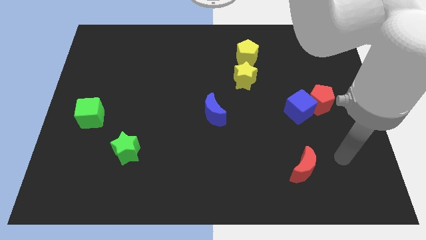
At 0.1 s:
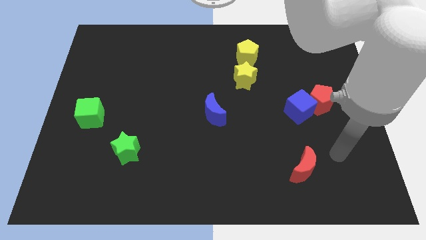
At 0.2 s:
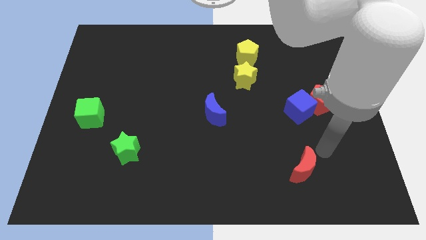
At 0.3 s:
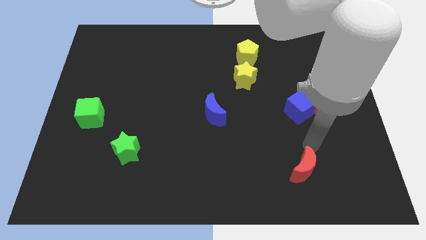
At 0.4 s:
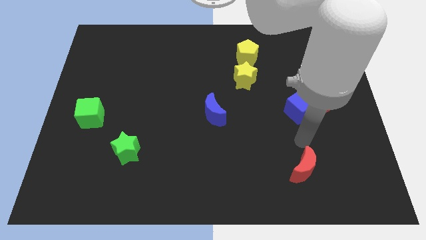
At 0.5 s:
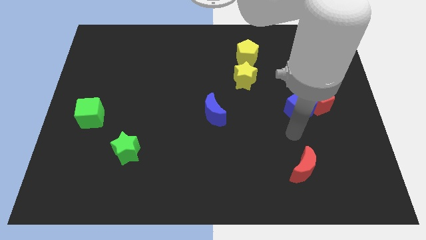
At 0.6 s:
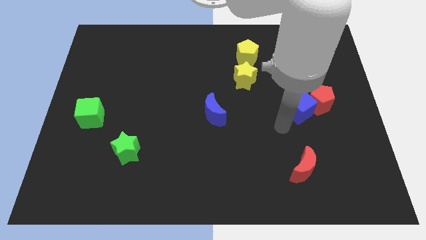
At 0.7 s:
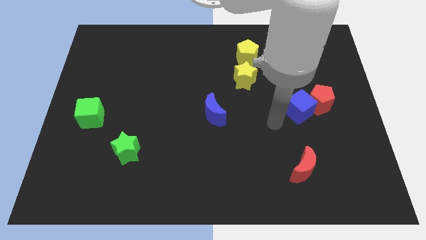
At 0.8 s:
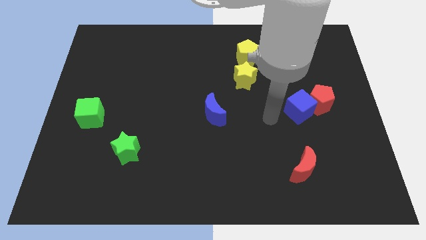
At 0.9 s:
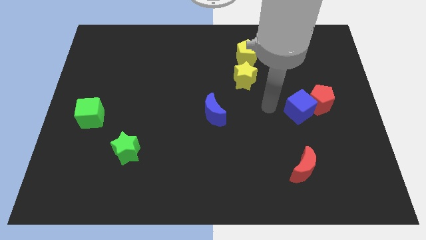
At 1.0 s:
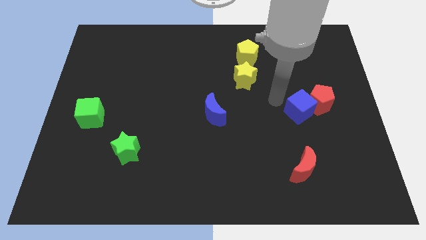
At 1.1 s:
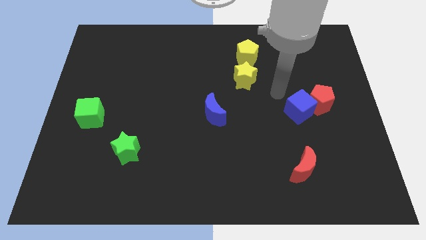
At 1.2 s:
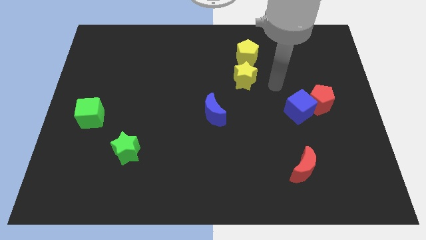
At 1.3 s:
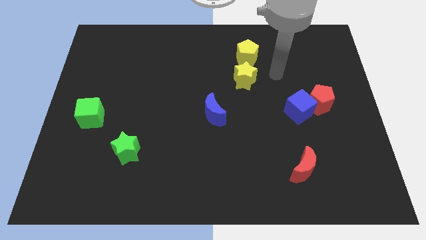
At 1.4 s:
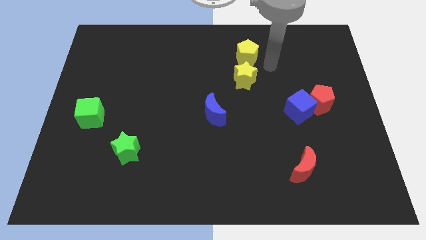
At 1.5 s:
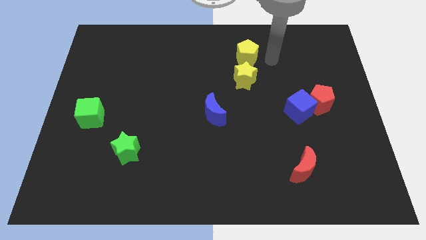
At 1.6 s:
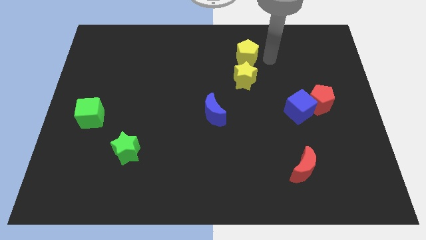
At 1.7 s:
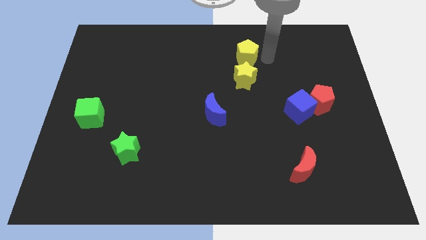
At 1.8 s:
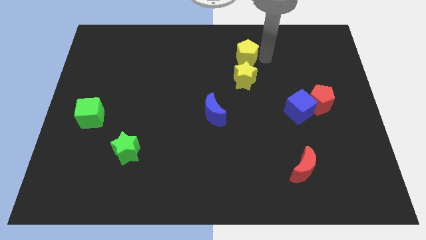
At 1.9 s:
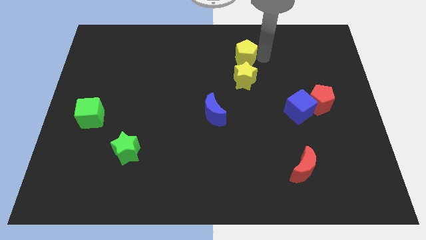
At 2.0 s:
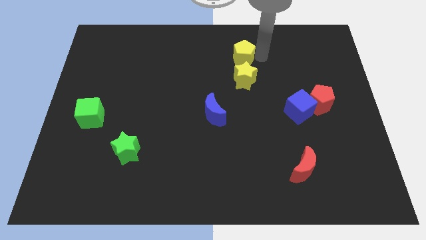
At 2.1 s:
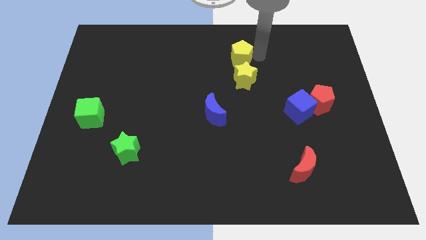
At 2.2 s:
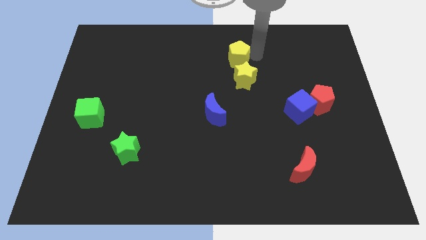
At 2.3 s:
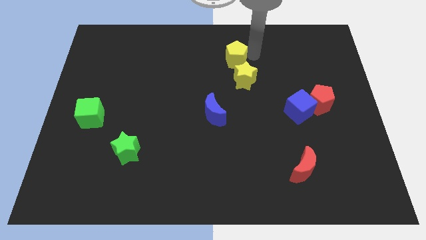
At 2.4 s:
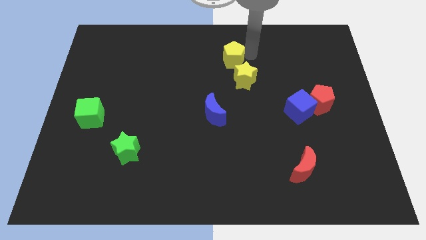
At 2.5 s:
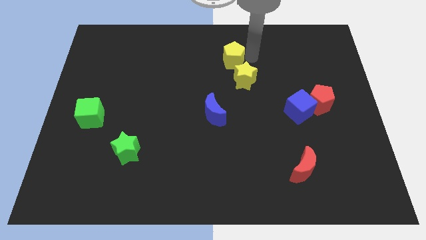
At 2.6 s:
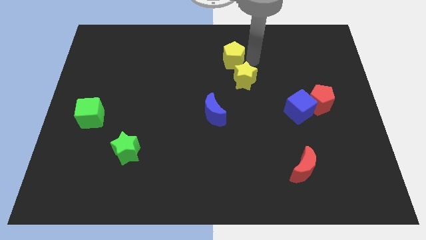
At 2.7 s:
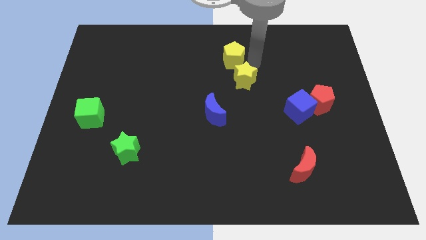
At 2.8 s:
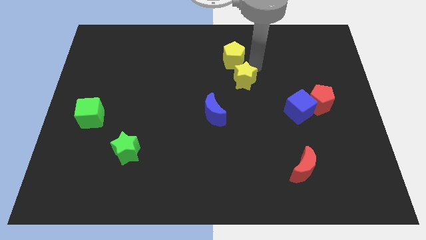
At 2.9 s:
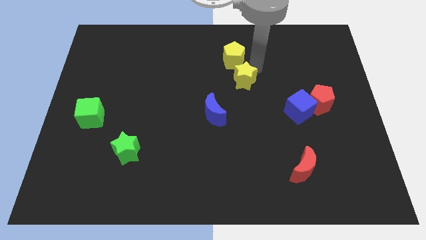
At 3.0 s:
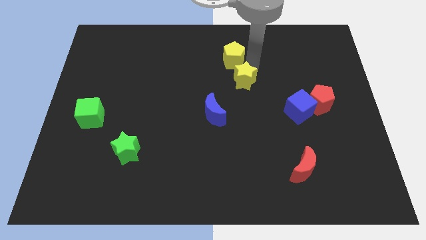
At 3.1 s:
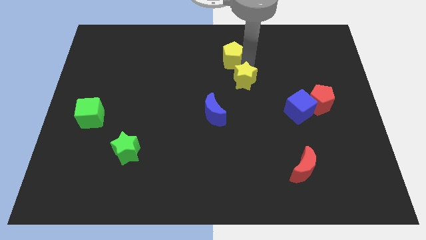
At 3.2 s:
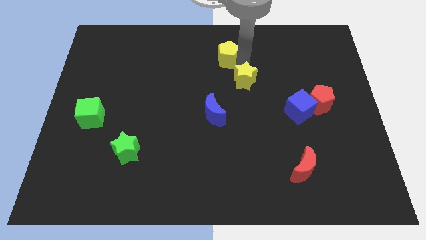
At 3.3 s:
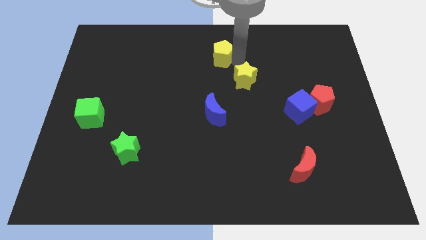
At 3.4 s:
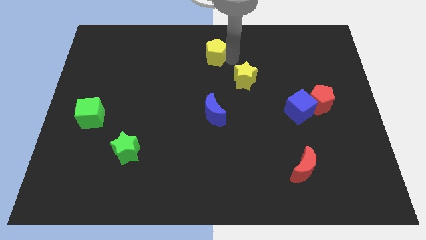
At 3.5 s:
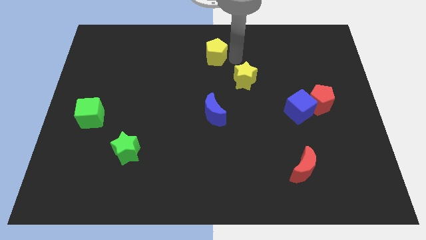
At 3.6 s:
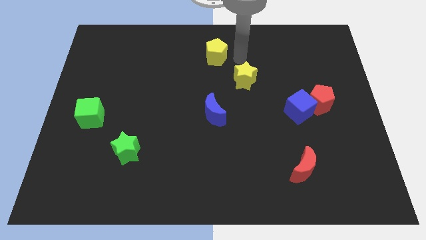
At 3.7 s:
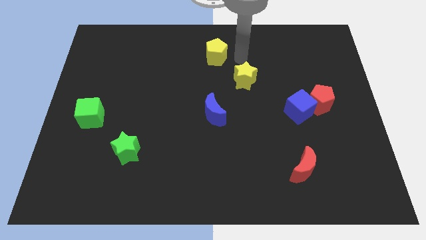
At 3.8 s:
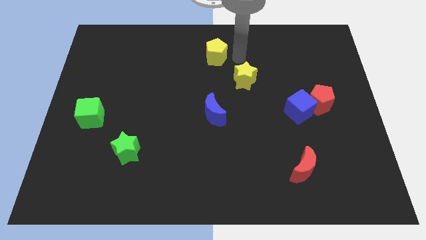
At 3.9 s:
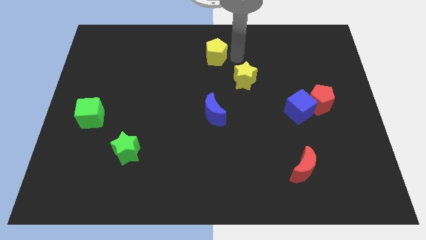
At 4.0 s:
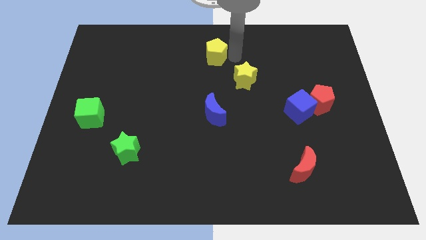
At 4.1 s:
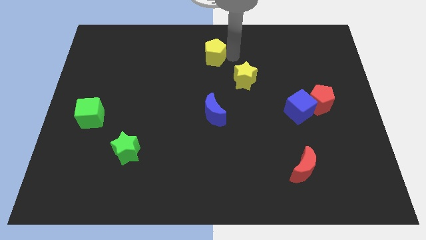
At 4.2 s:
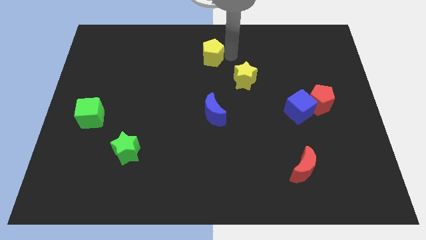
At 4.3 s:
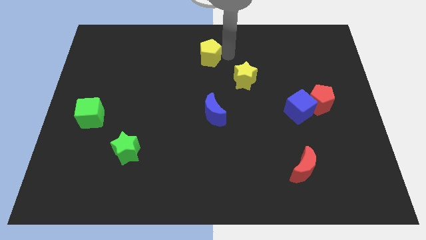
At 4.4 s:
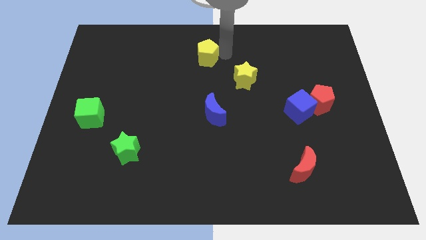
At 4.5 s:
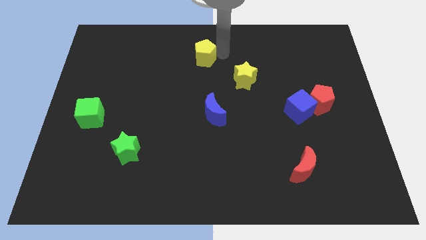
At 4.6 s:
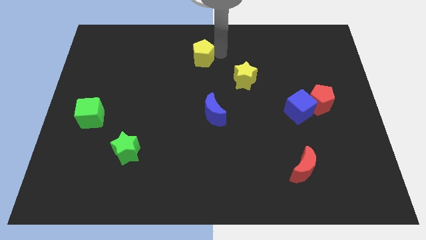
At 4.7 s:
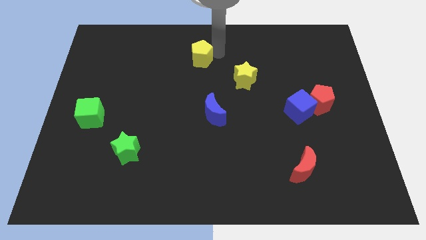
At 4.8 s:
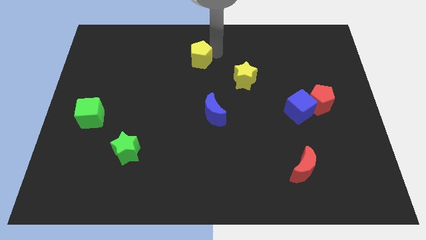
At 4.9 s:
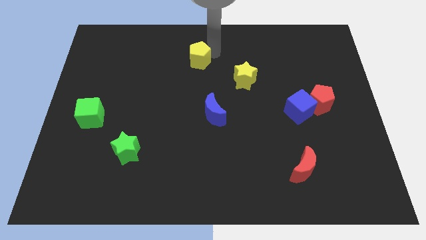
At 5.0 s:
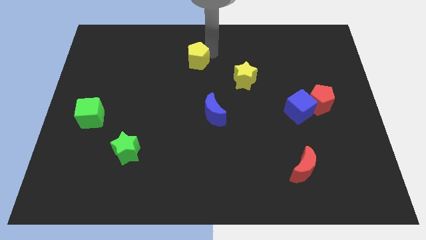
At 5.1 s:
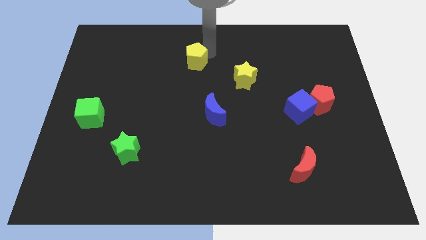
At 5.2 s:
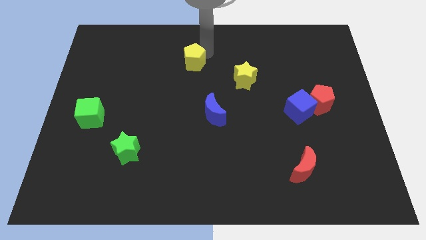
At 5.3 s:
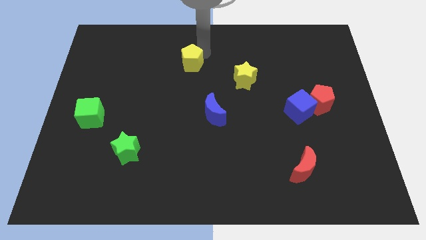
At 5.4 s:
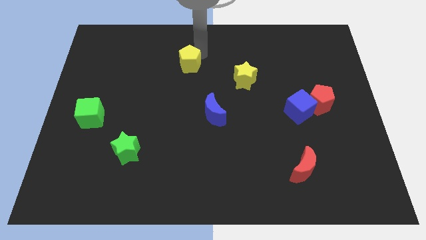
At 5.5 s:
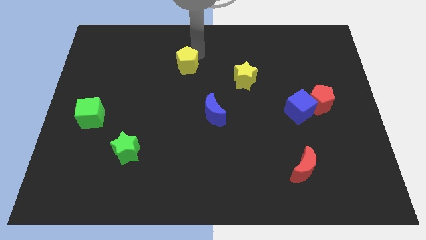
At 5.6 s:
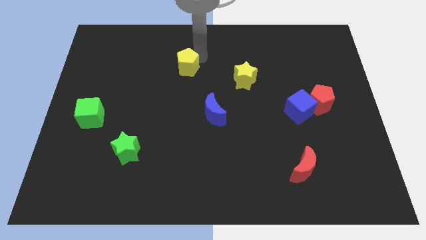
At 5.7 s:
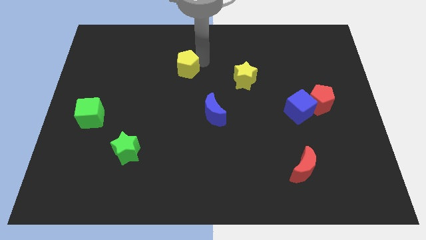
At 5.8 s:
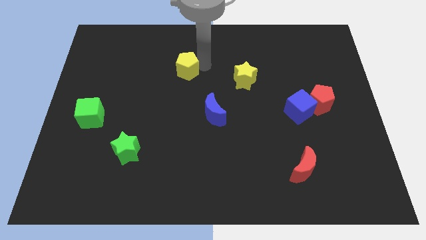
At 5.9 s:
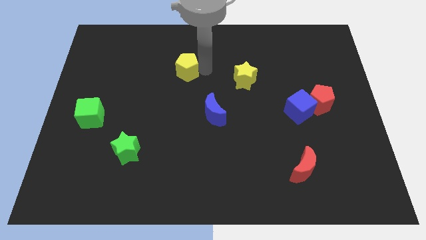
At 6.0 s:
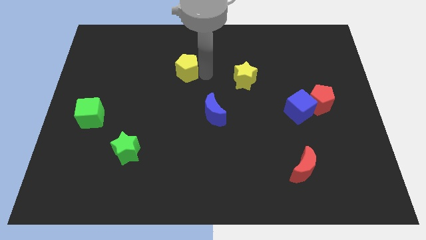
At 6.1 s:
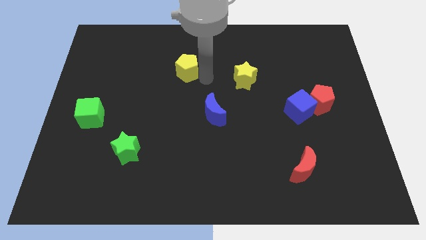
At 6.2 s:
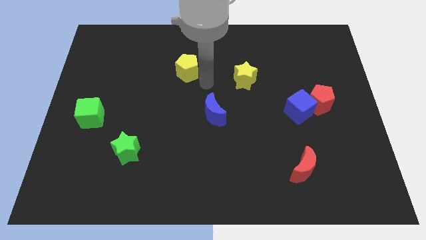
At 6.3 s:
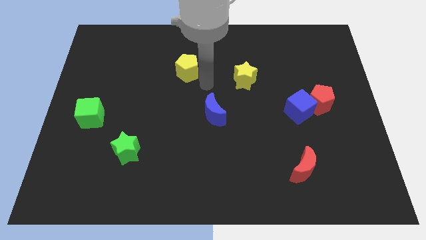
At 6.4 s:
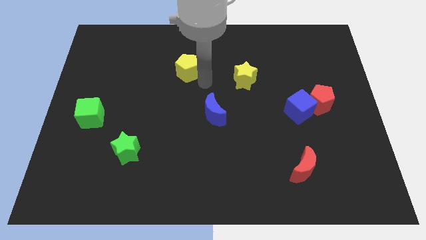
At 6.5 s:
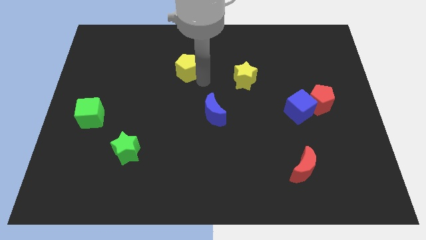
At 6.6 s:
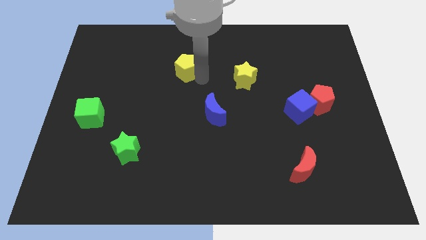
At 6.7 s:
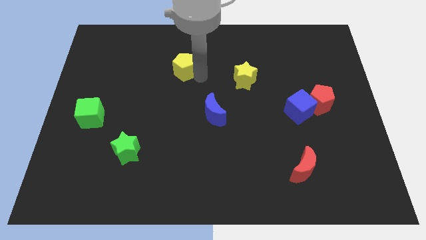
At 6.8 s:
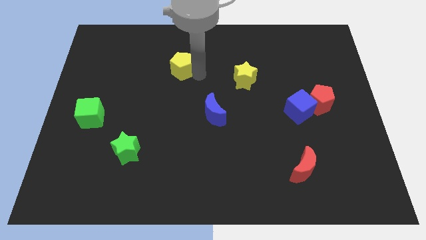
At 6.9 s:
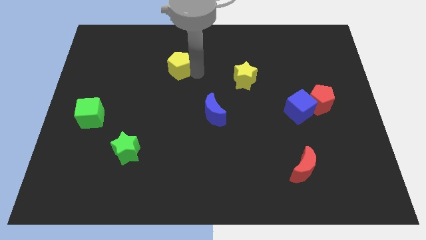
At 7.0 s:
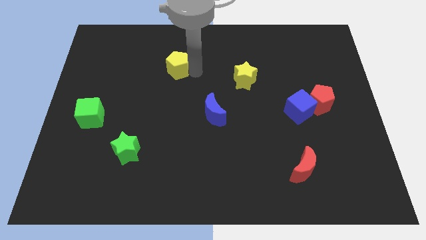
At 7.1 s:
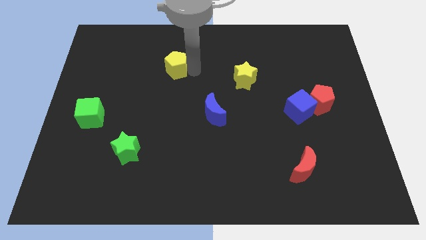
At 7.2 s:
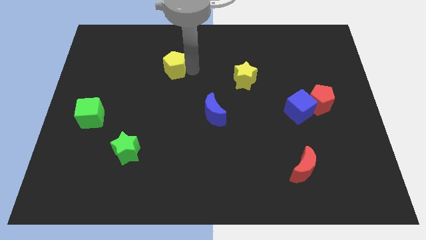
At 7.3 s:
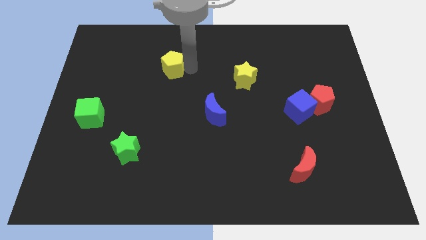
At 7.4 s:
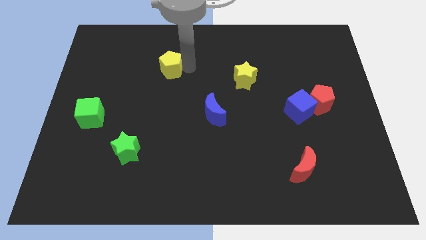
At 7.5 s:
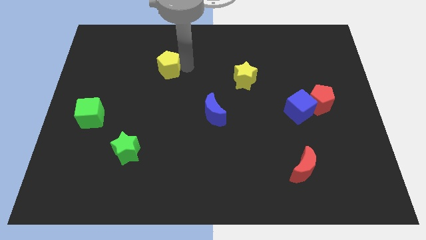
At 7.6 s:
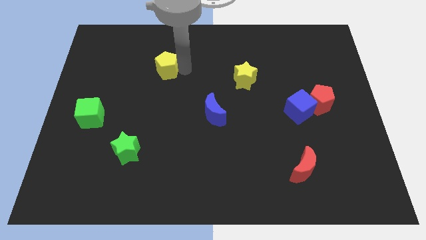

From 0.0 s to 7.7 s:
slide the yellow pentagon left
